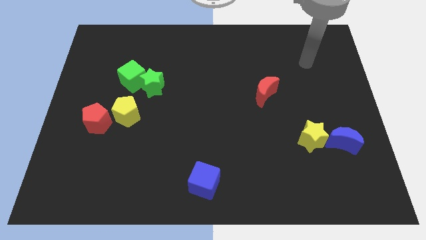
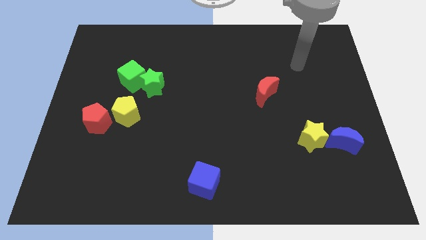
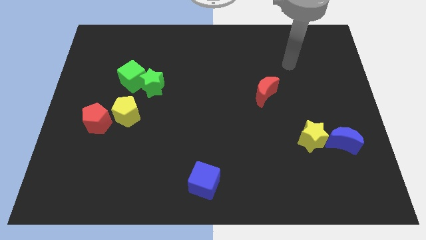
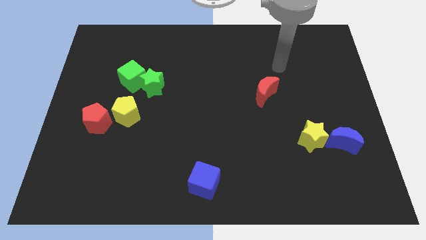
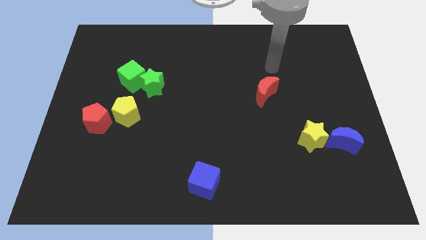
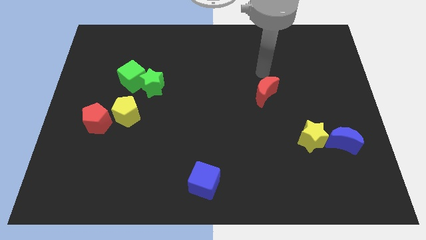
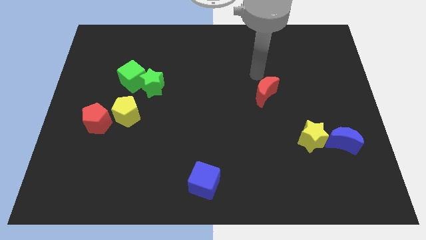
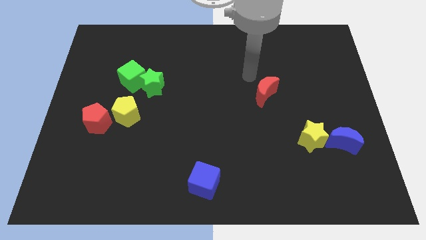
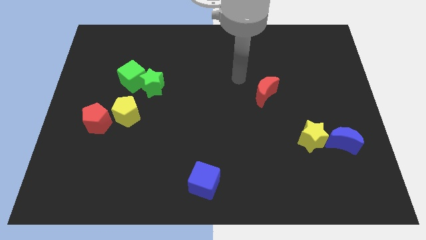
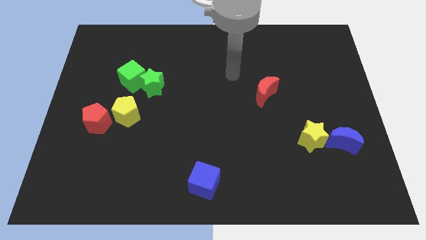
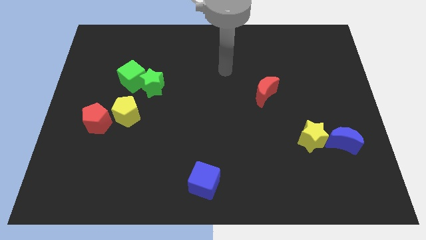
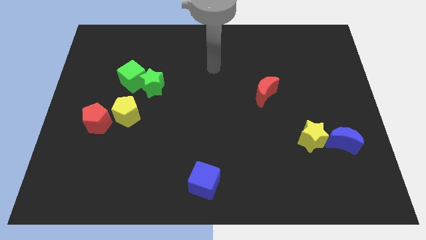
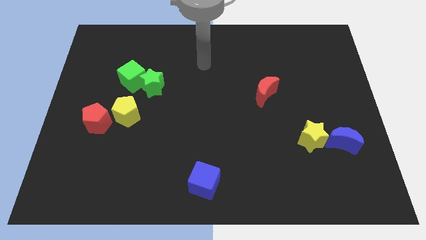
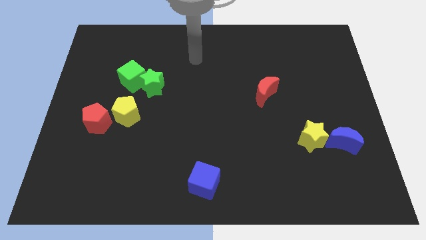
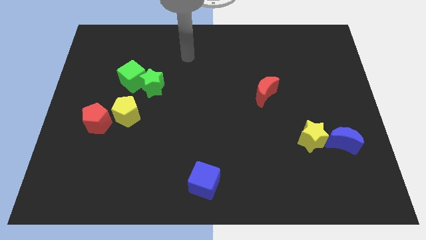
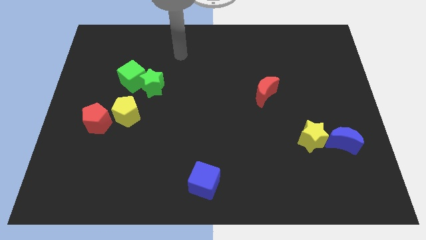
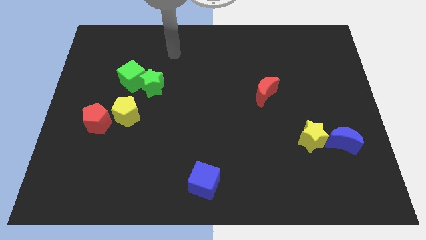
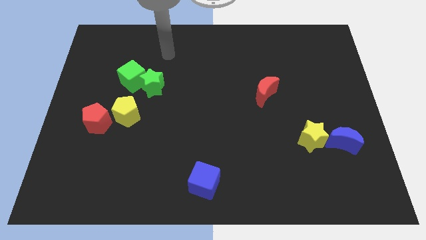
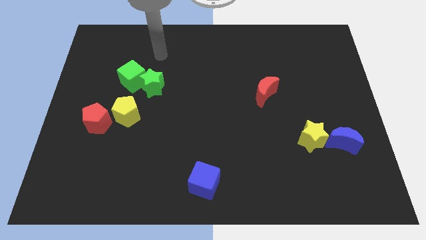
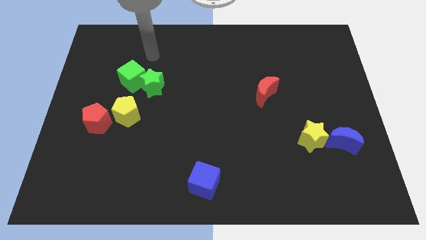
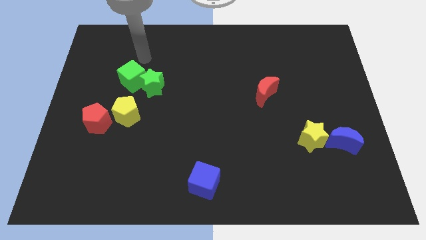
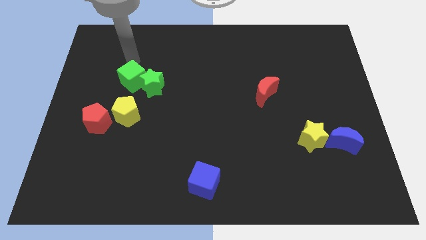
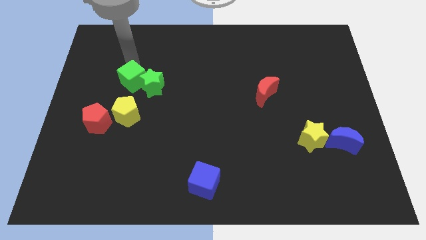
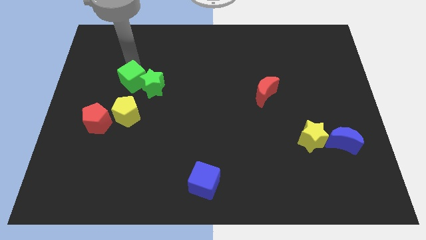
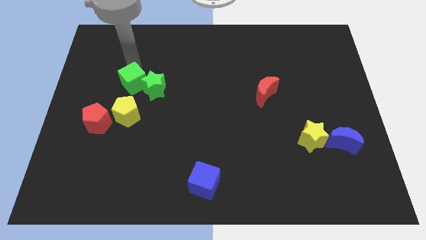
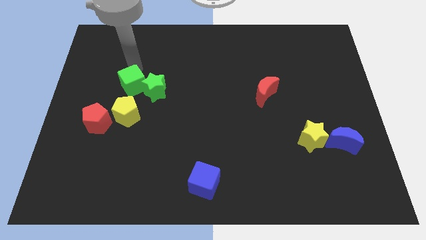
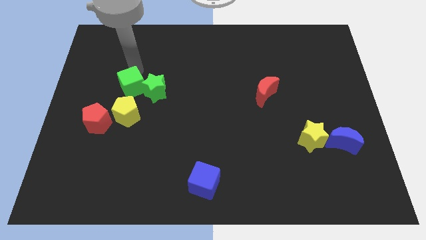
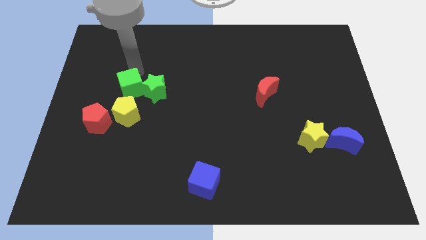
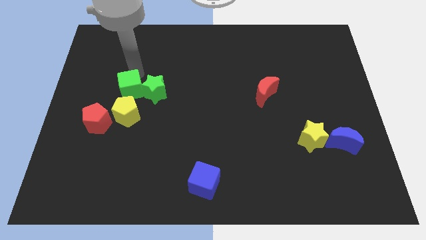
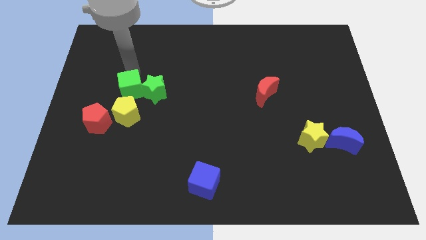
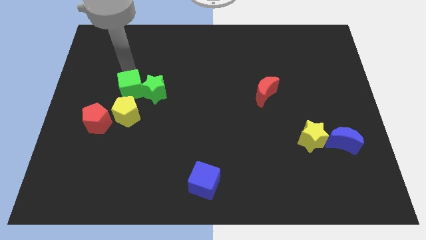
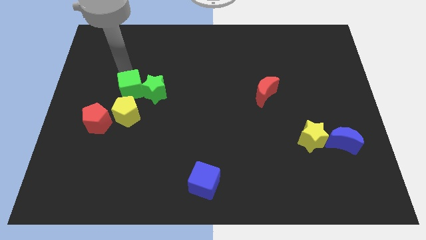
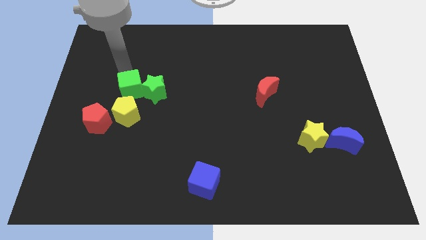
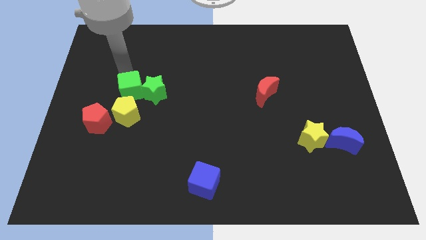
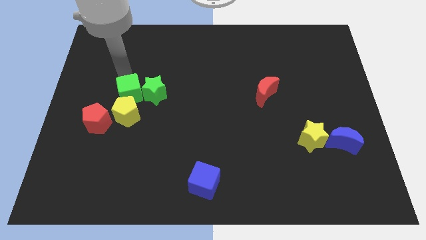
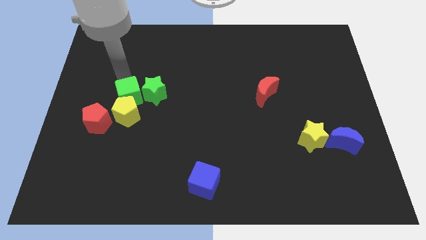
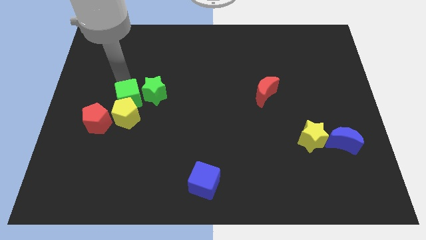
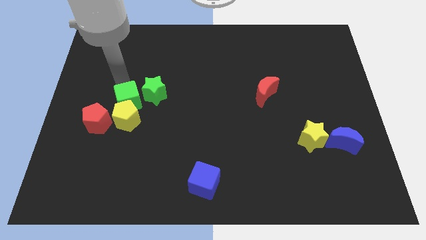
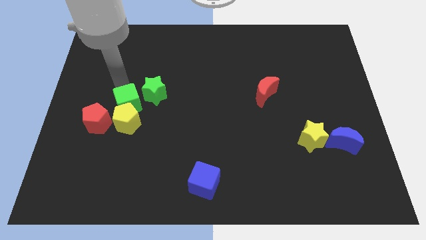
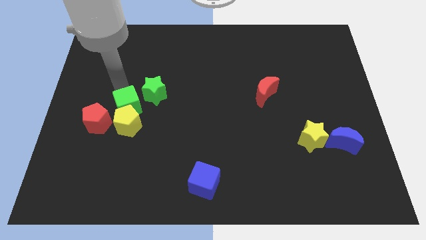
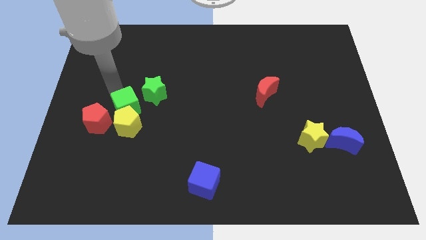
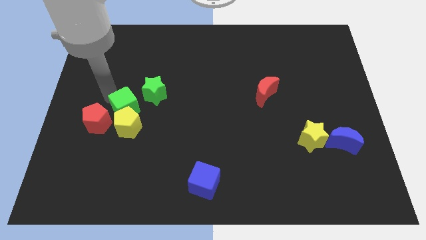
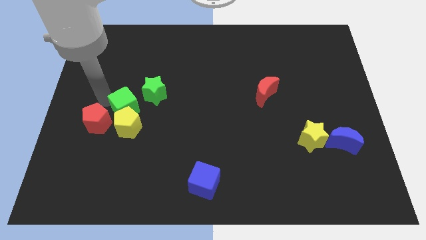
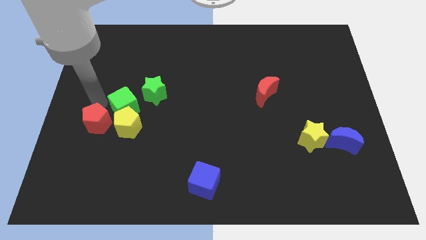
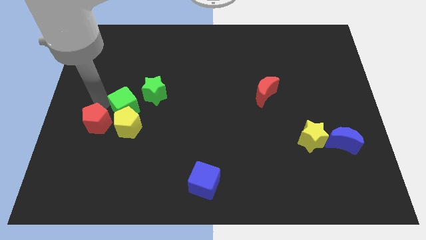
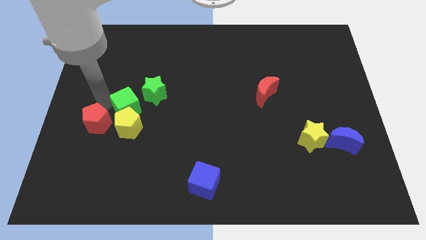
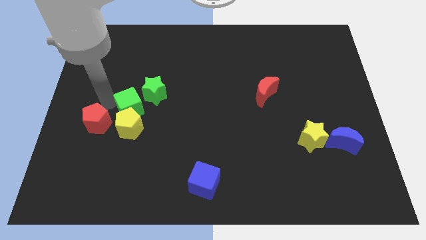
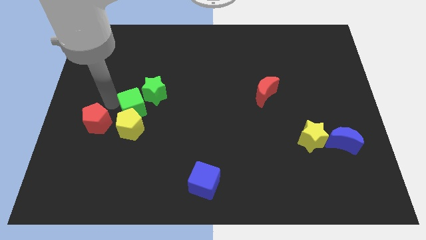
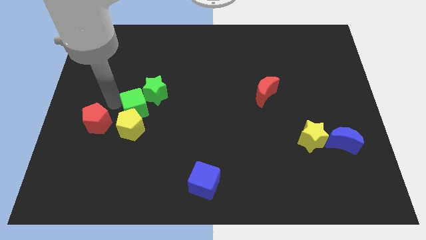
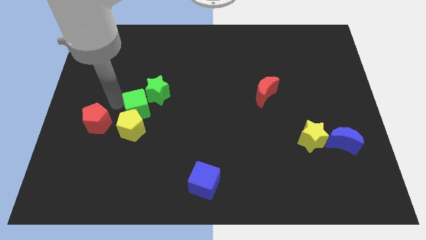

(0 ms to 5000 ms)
move the green cube somewhat diagonally downwards and to the right

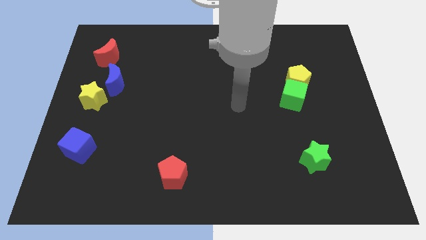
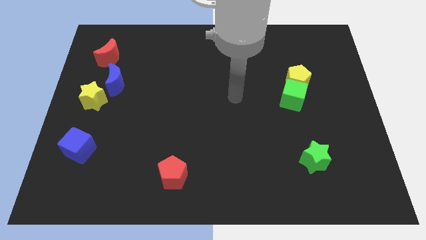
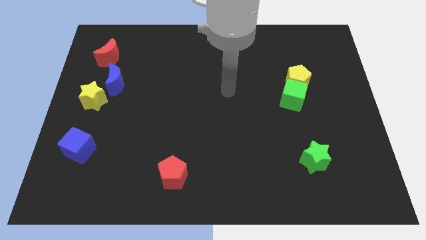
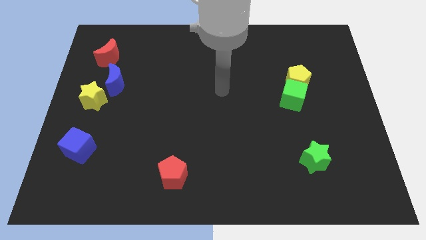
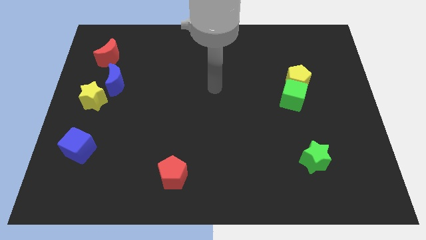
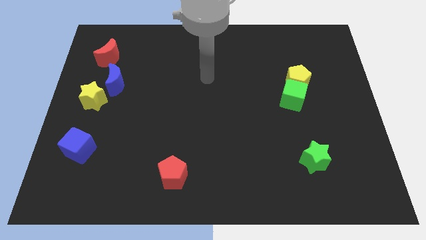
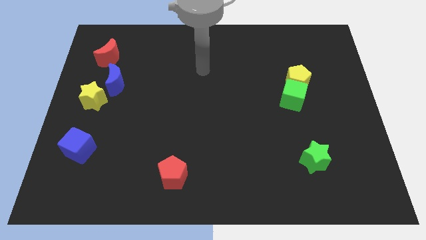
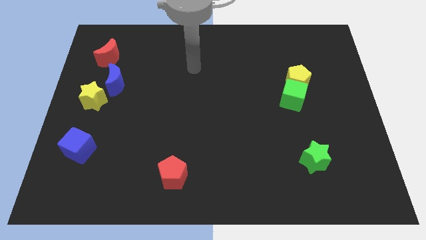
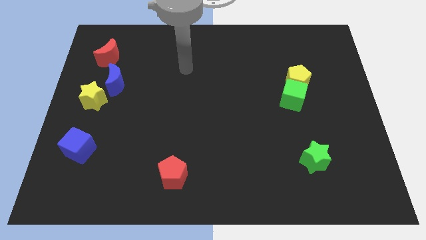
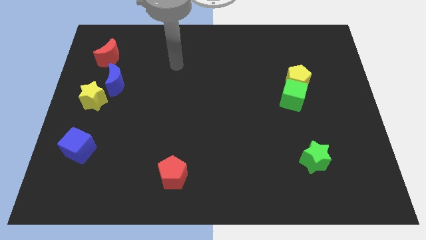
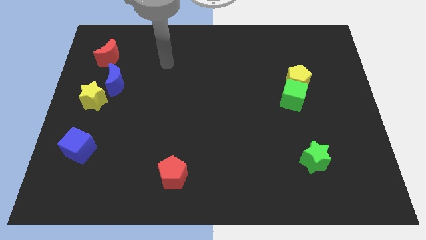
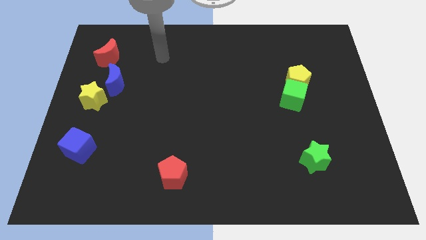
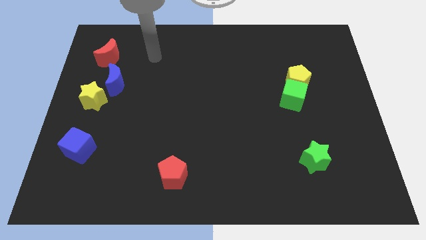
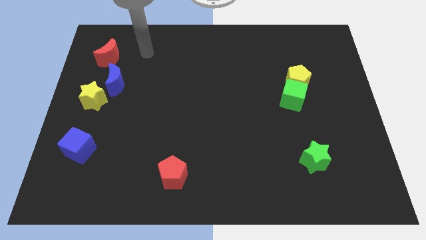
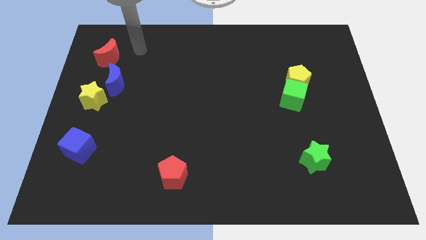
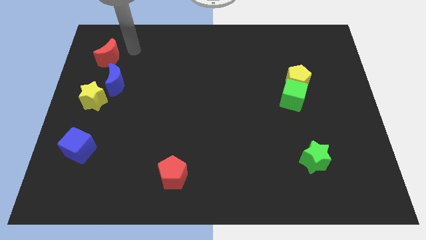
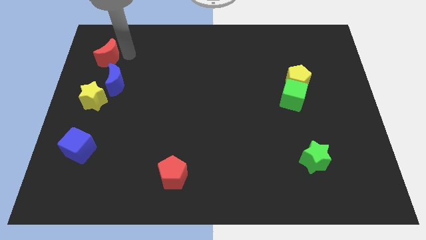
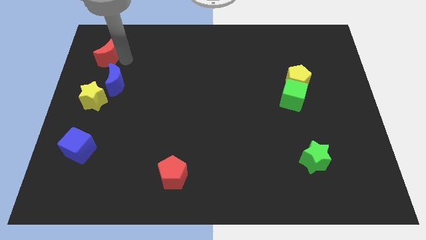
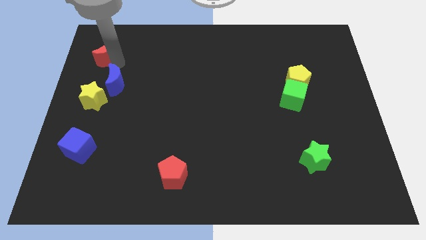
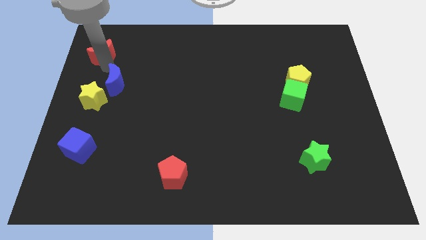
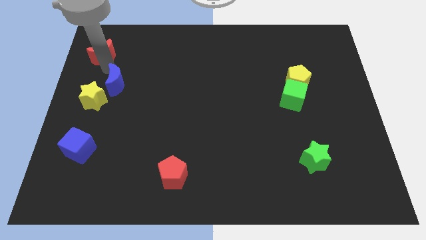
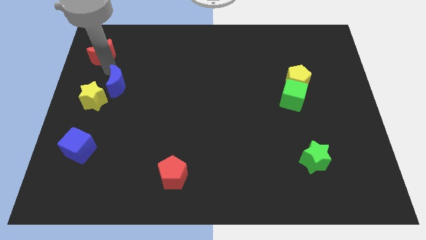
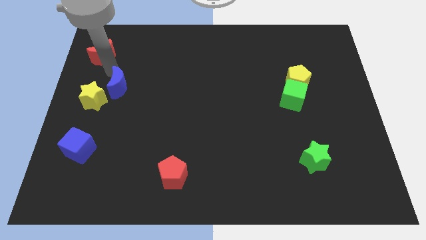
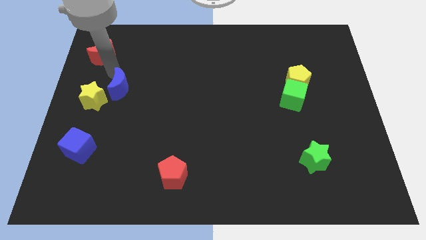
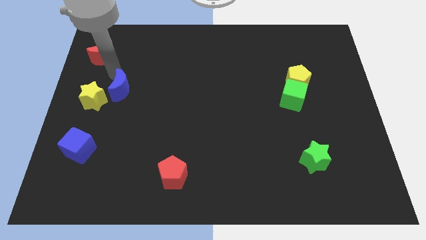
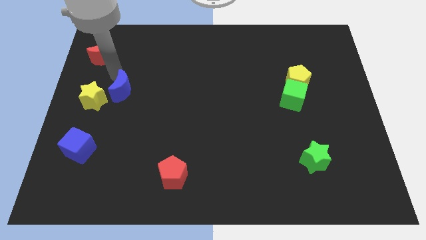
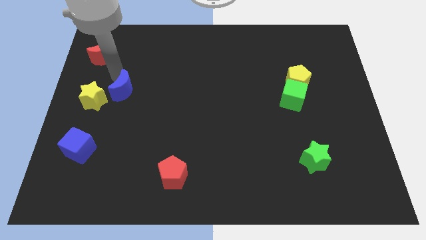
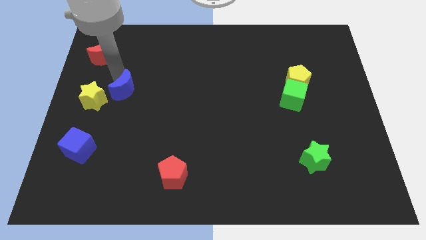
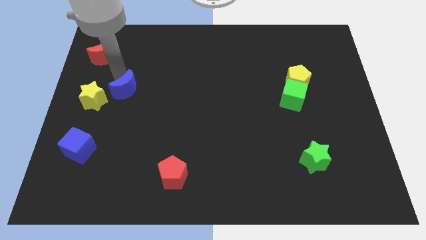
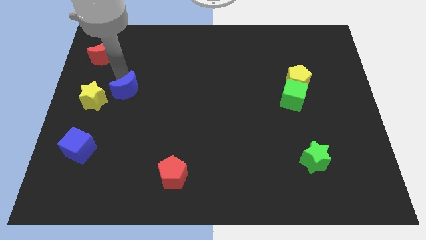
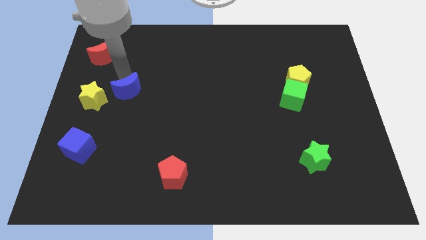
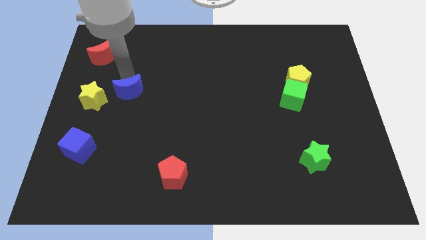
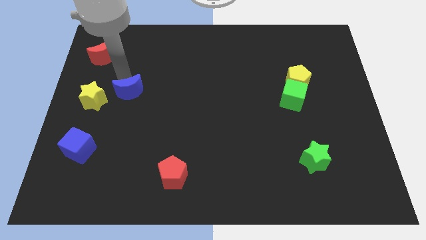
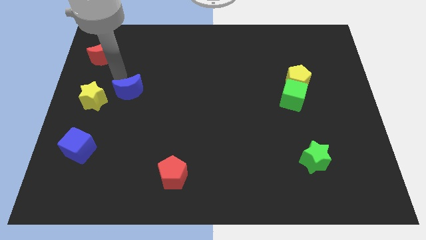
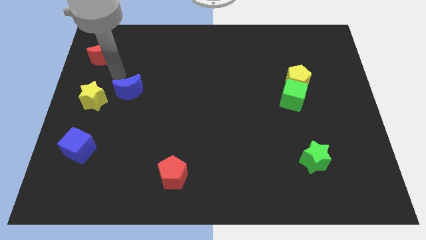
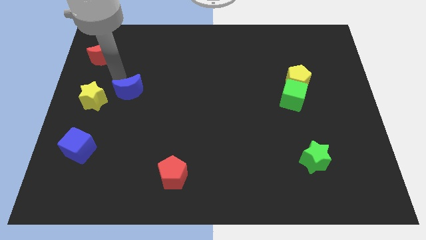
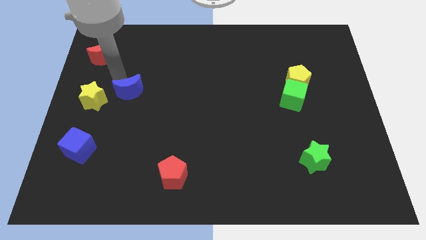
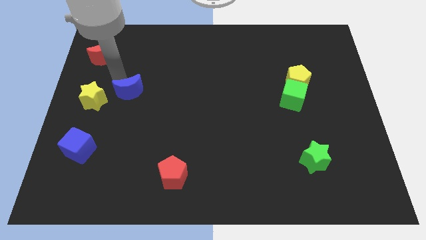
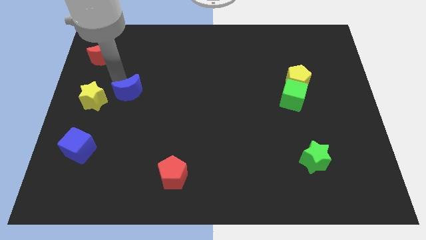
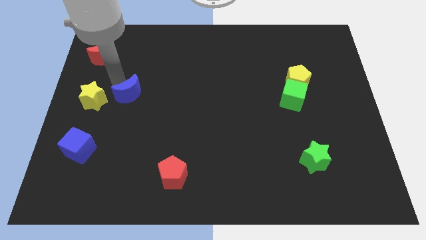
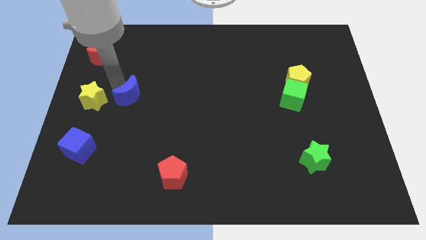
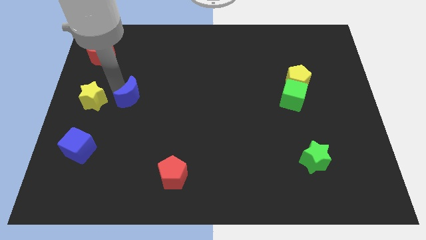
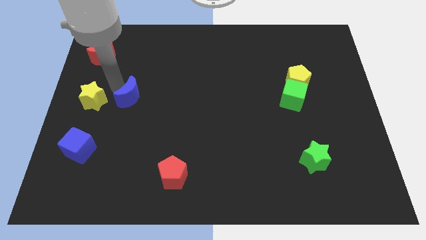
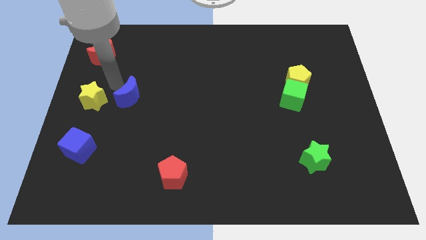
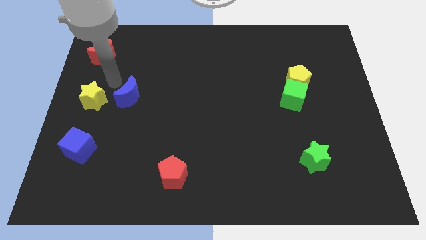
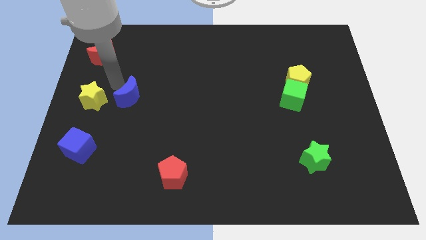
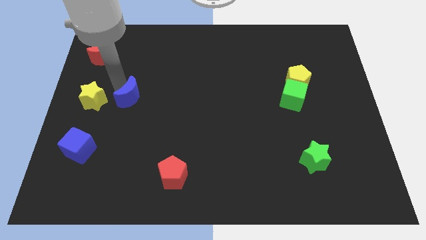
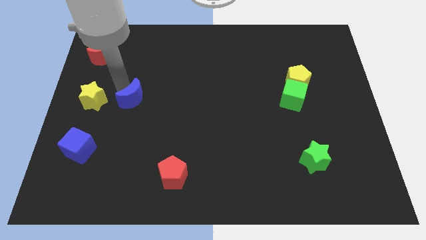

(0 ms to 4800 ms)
move the blue moon diagonally downwards and to the right a bit
